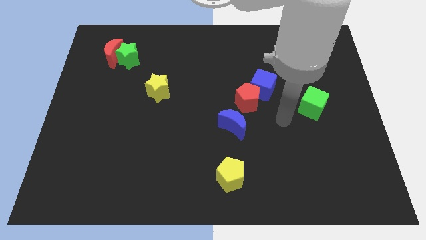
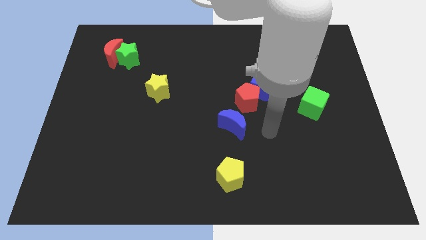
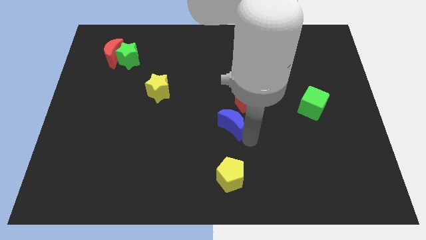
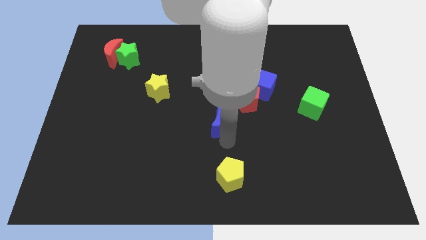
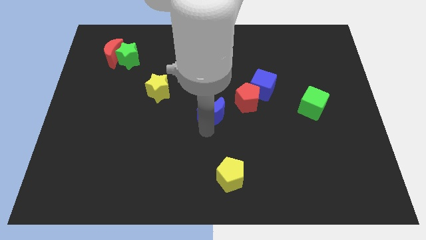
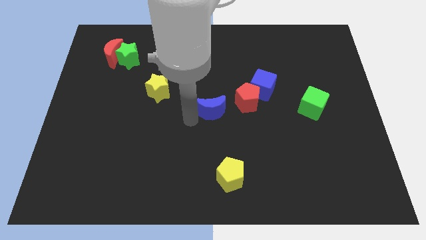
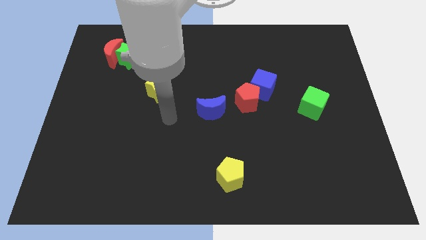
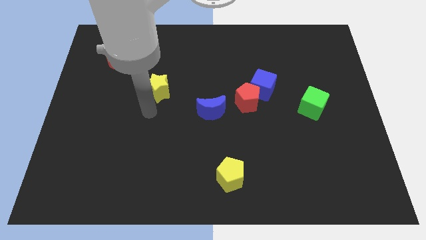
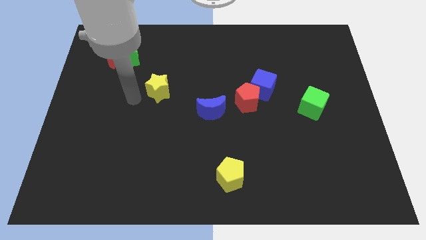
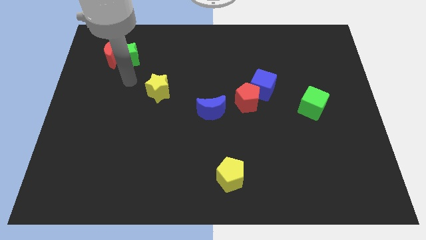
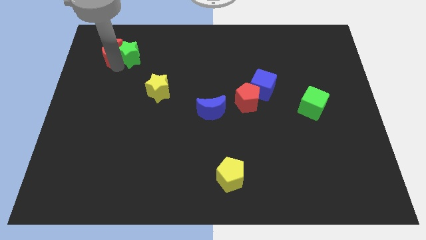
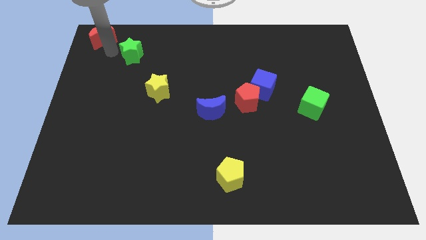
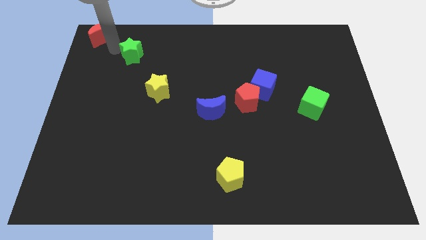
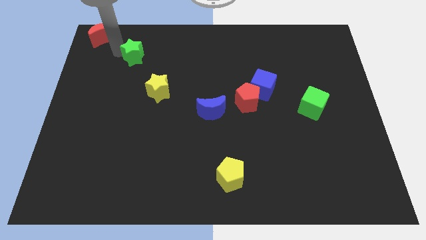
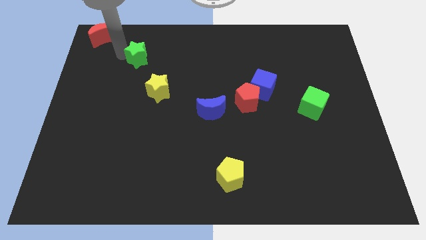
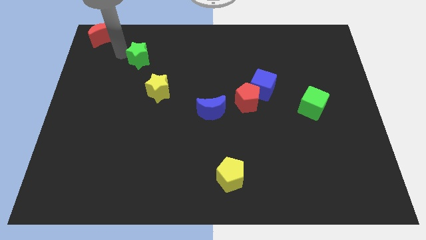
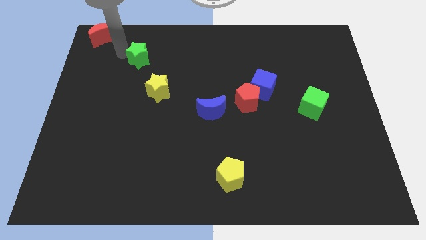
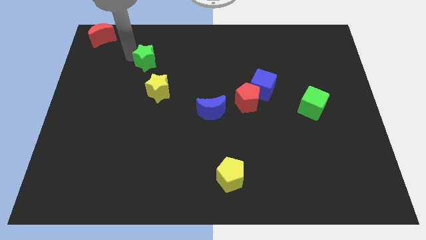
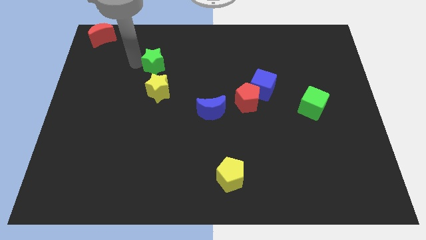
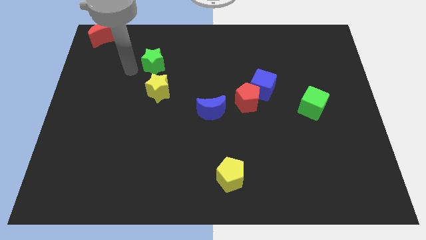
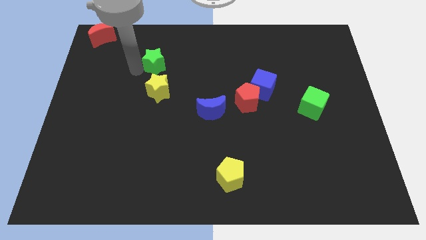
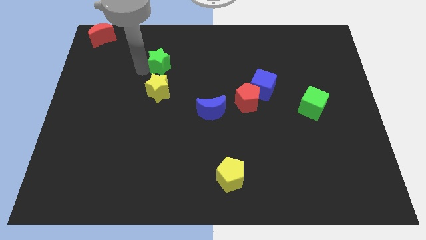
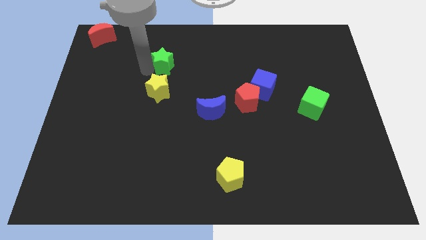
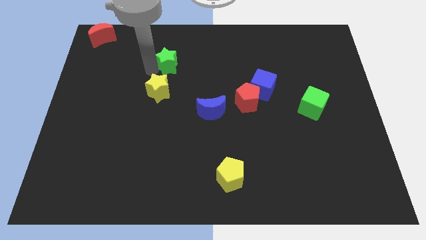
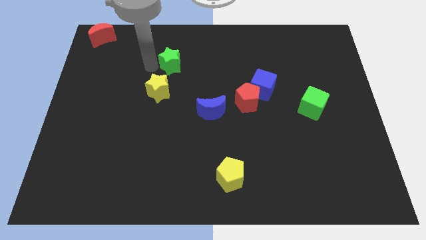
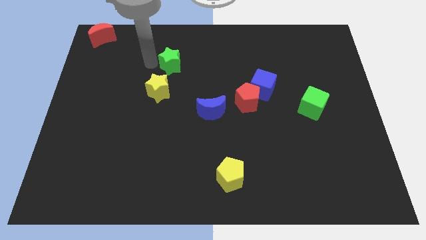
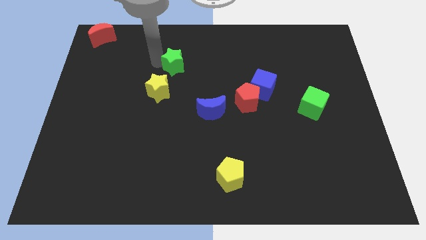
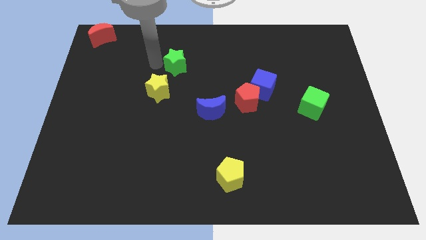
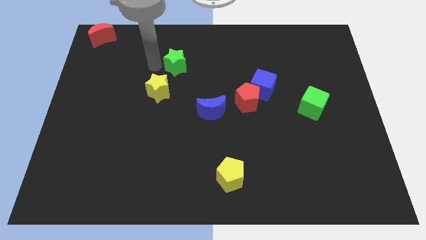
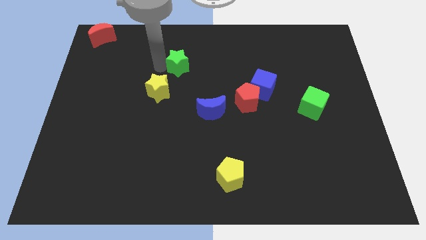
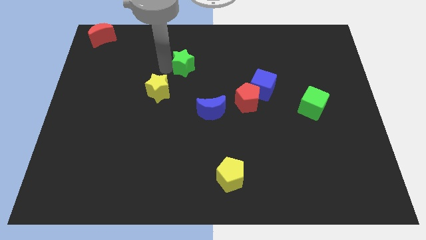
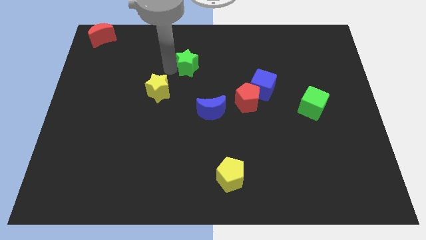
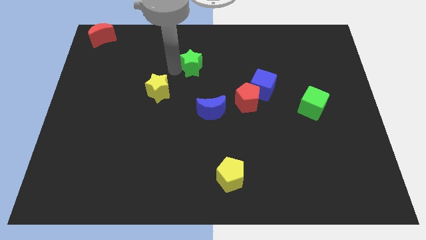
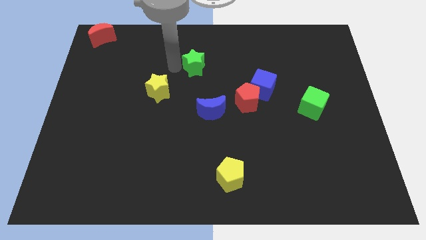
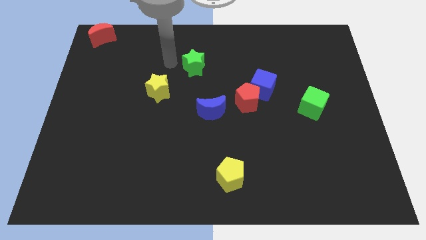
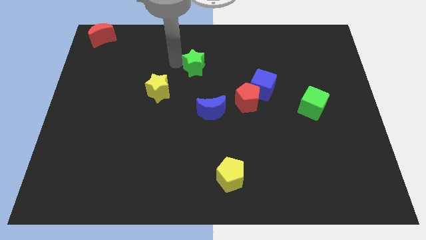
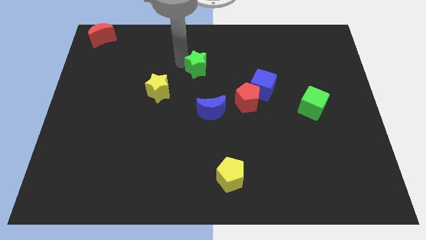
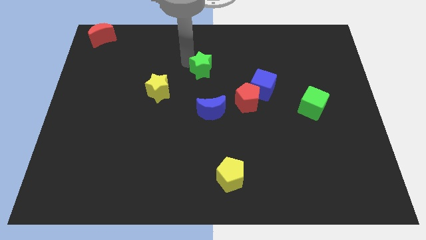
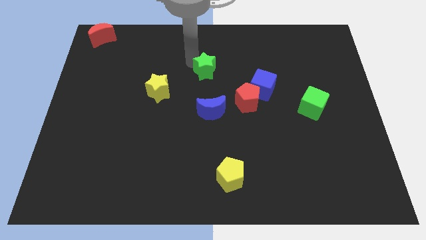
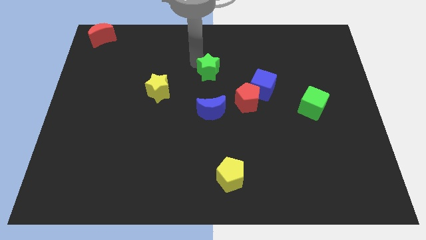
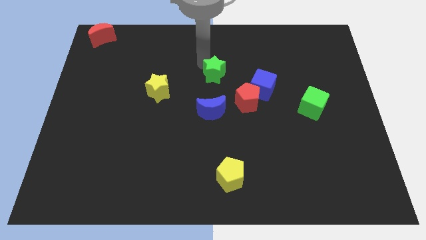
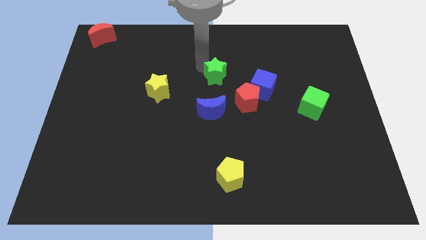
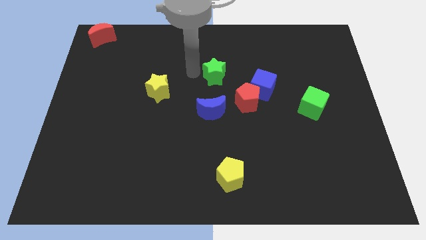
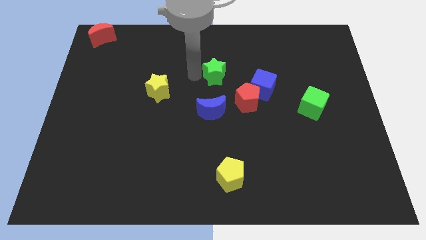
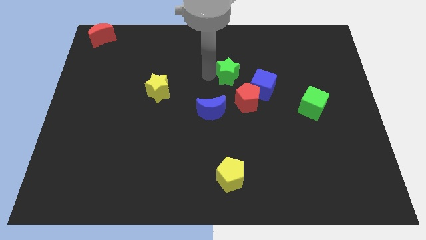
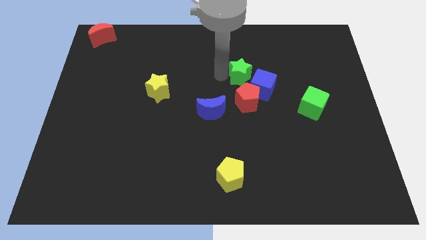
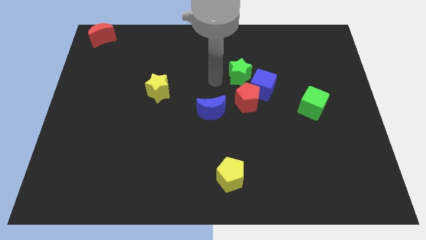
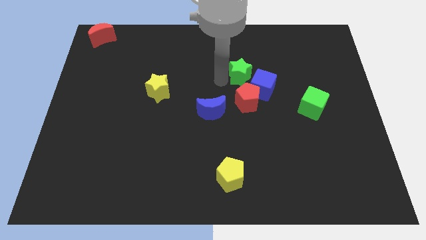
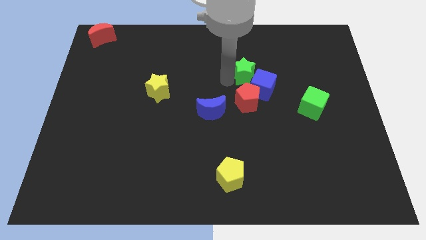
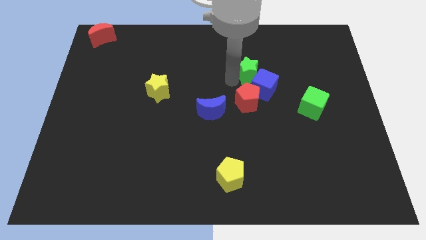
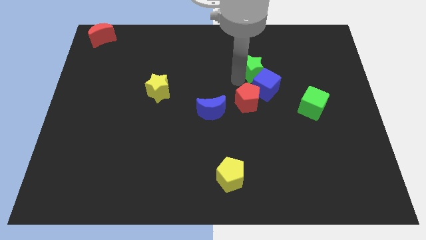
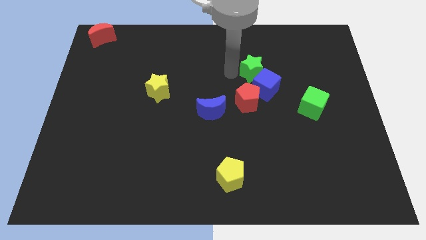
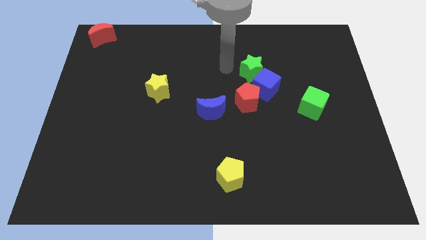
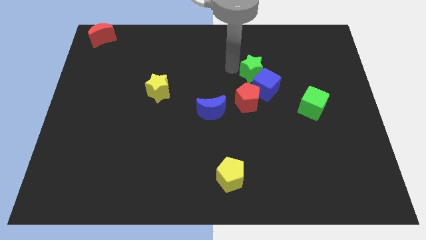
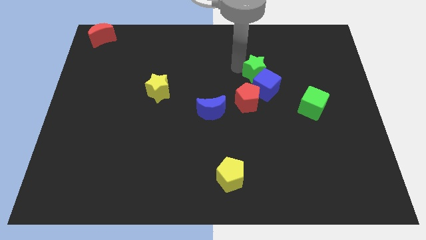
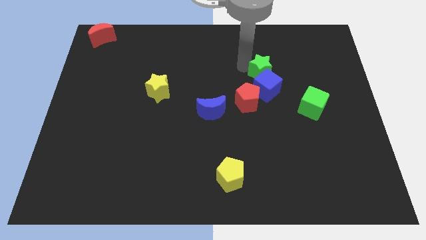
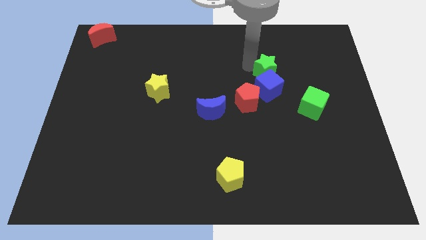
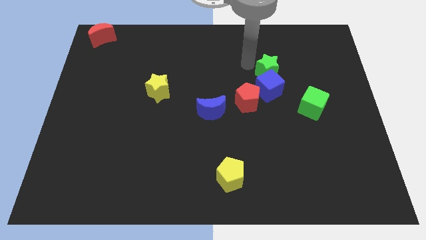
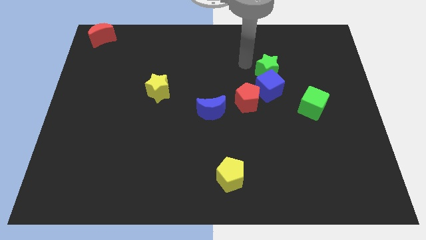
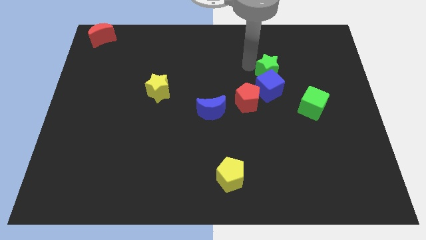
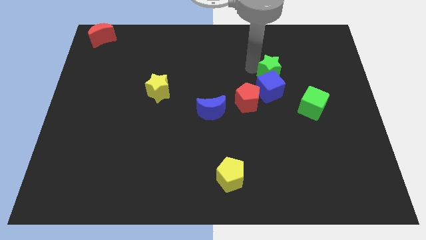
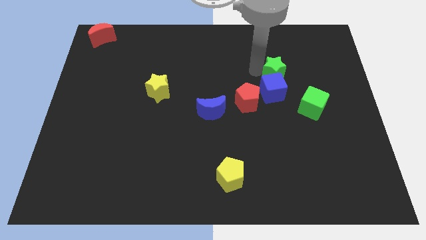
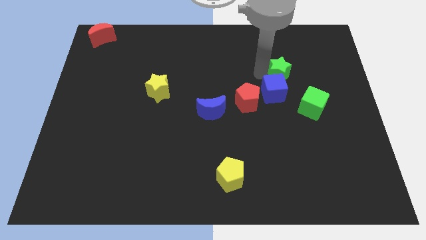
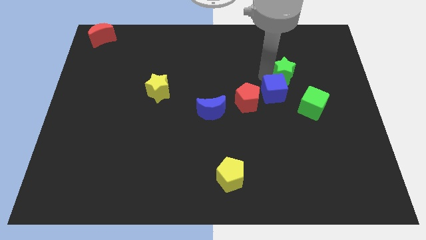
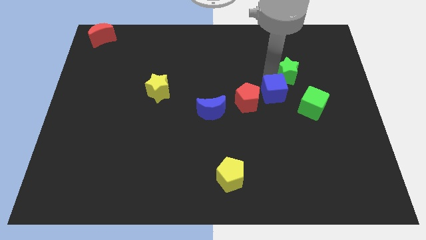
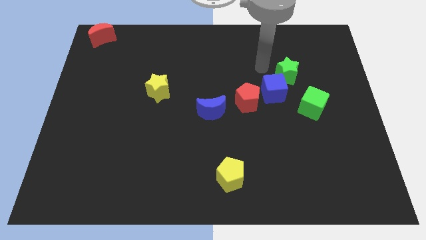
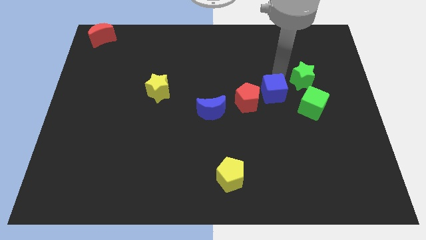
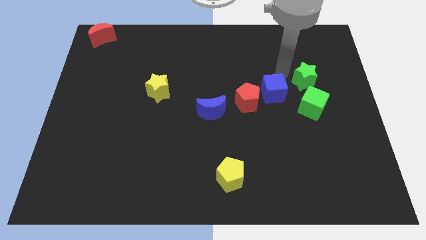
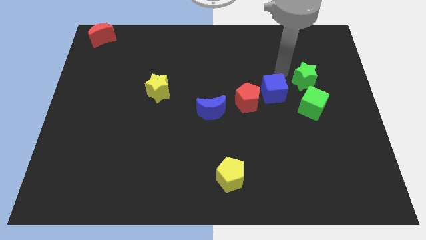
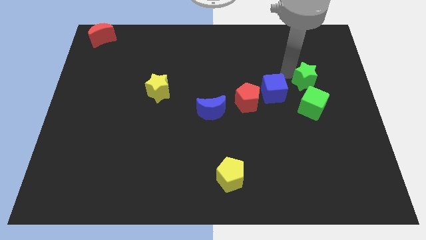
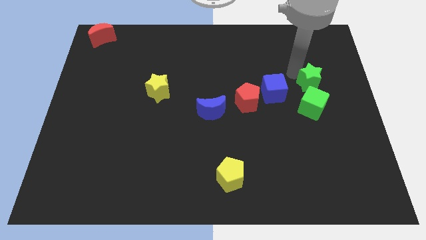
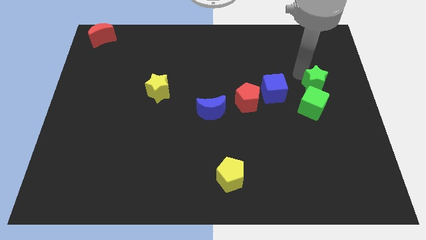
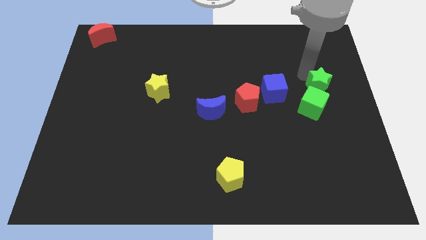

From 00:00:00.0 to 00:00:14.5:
slide the green star to the center right
